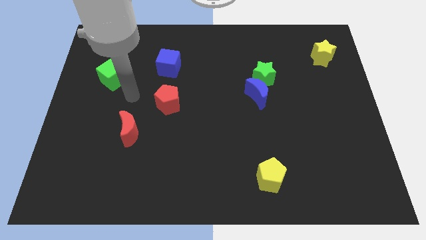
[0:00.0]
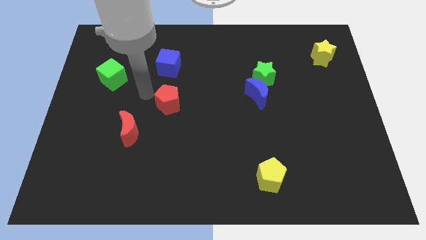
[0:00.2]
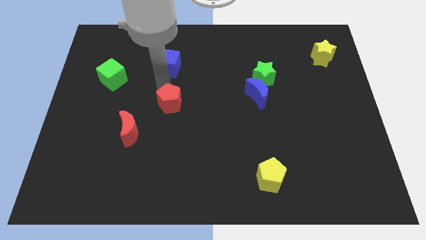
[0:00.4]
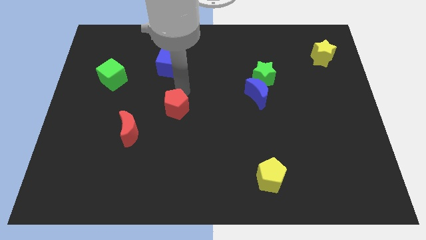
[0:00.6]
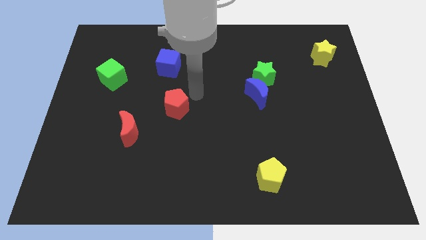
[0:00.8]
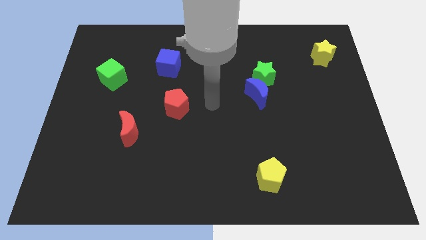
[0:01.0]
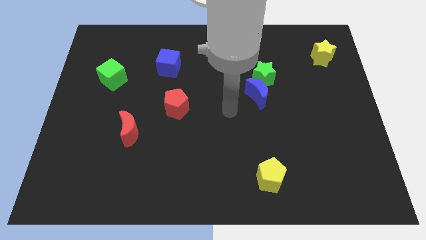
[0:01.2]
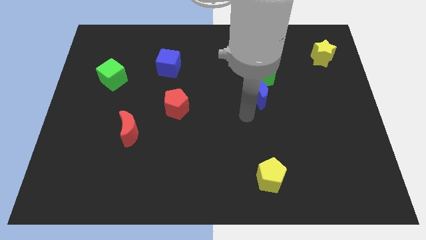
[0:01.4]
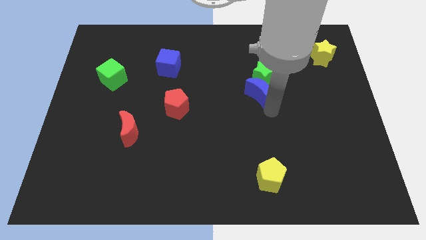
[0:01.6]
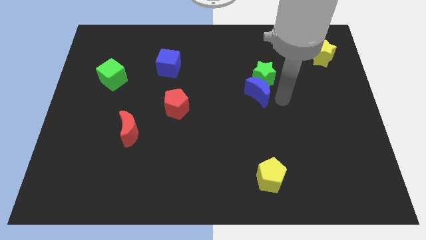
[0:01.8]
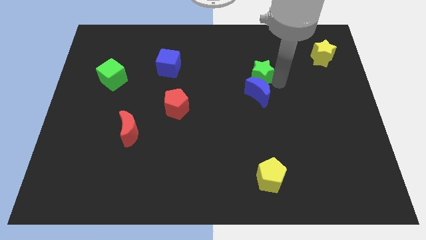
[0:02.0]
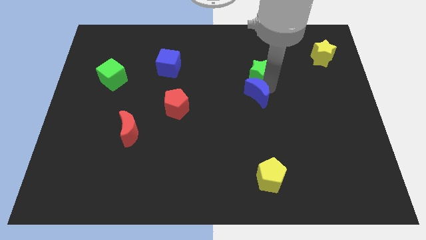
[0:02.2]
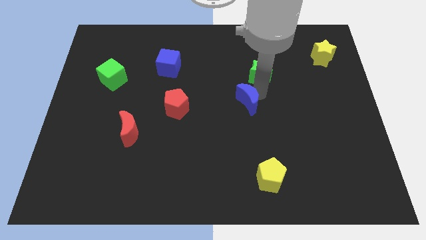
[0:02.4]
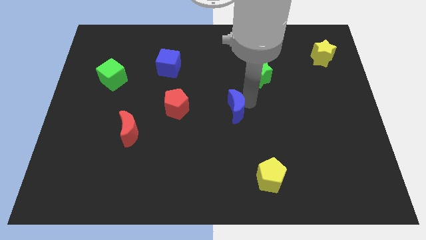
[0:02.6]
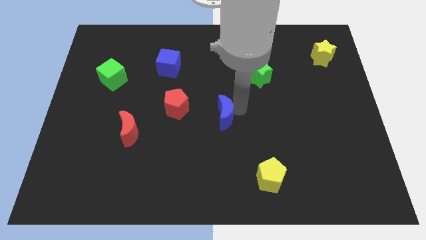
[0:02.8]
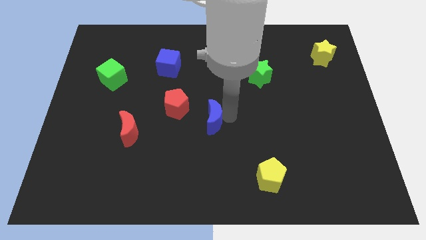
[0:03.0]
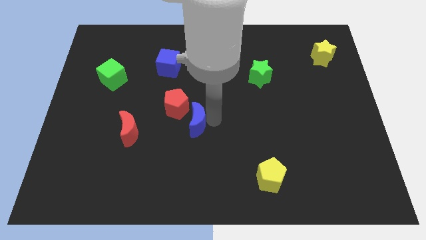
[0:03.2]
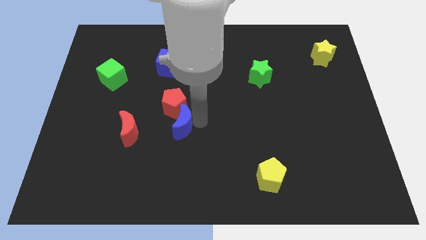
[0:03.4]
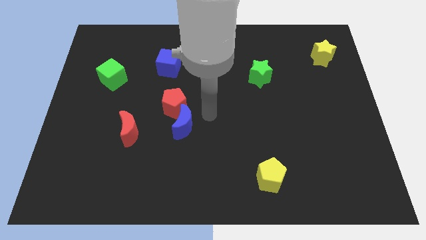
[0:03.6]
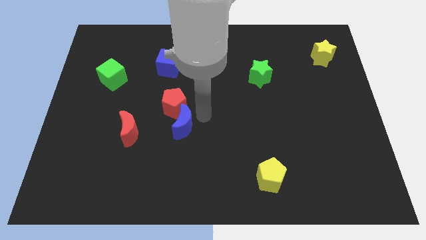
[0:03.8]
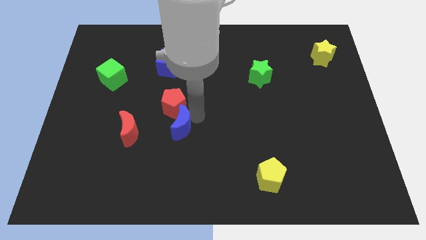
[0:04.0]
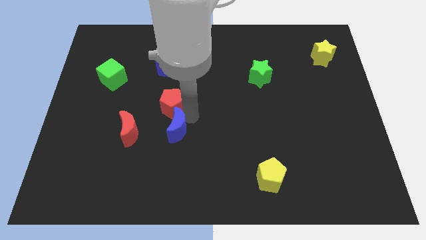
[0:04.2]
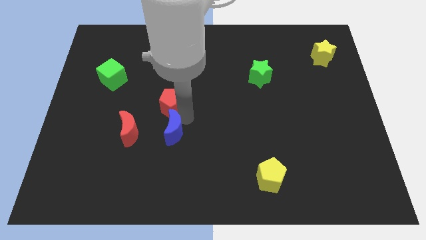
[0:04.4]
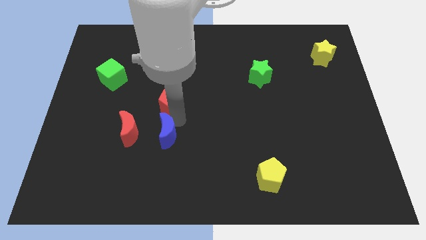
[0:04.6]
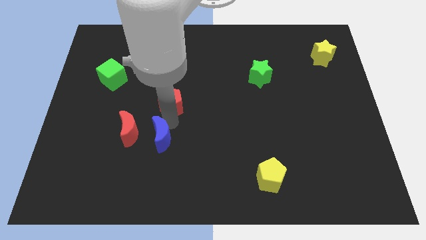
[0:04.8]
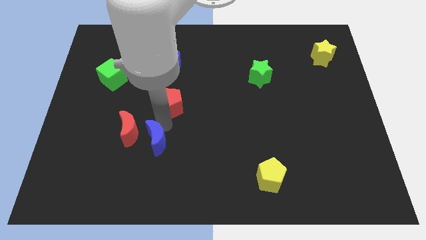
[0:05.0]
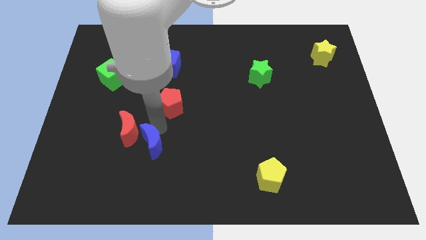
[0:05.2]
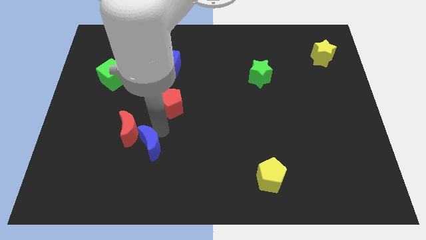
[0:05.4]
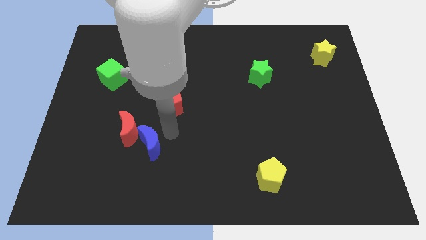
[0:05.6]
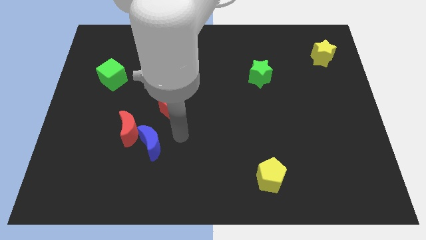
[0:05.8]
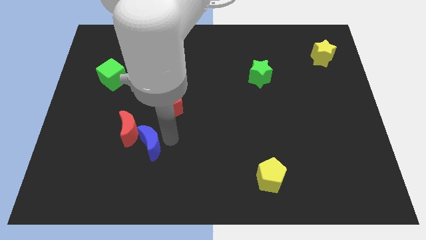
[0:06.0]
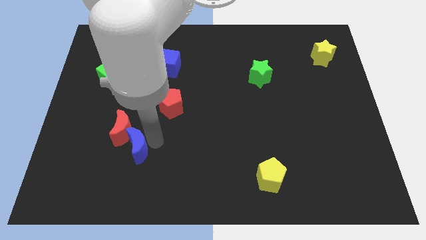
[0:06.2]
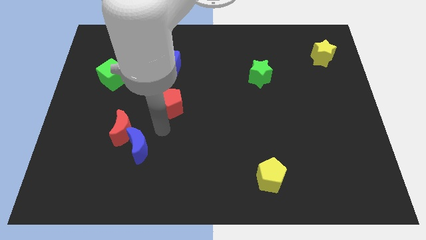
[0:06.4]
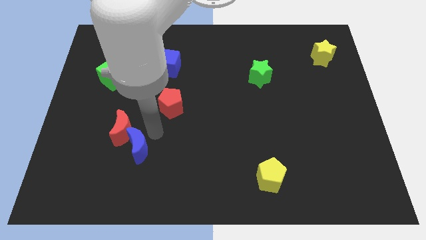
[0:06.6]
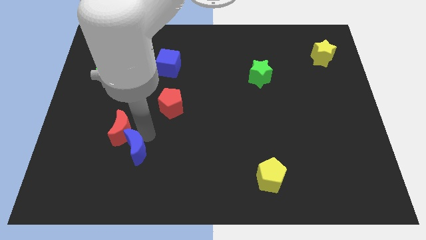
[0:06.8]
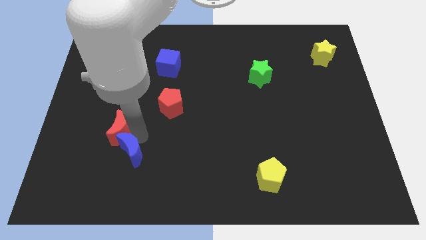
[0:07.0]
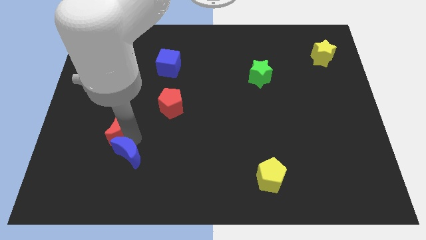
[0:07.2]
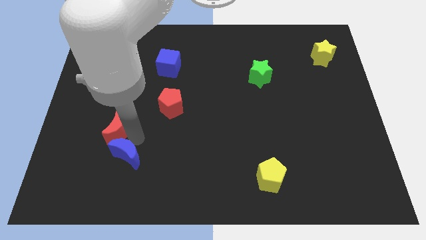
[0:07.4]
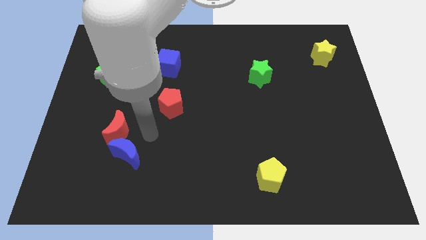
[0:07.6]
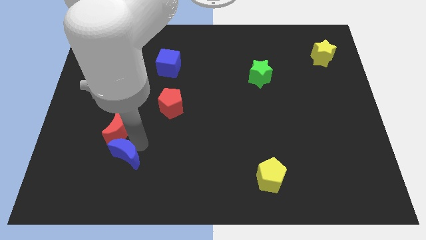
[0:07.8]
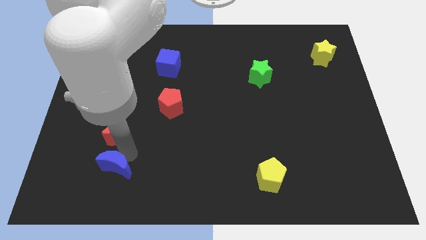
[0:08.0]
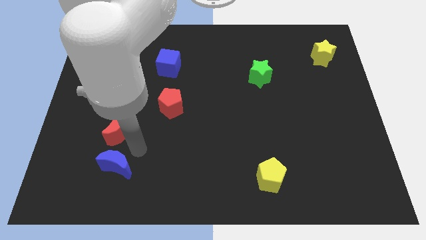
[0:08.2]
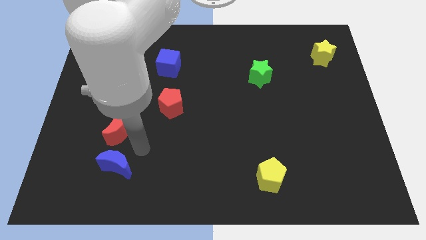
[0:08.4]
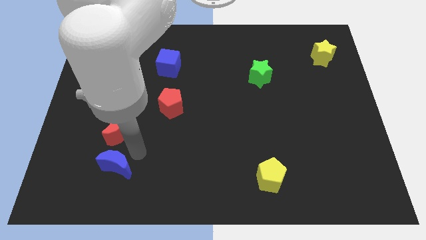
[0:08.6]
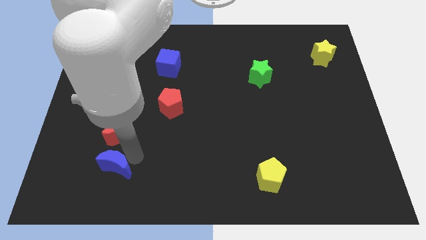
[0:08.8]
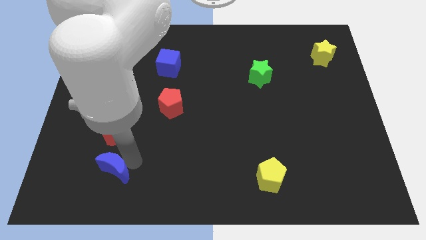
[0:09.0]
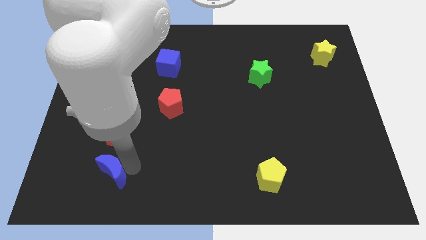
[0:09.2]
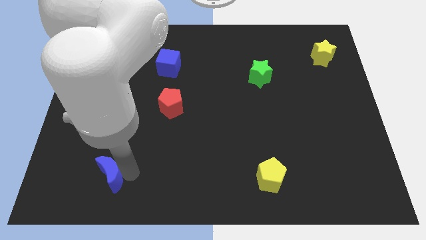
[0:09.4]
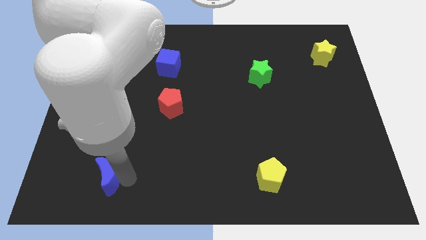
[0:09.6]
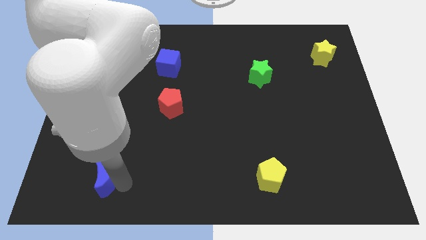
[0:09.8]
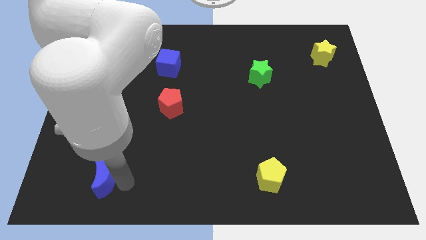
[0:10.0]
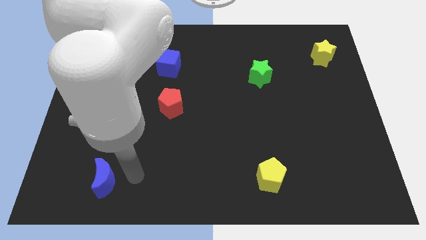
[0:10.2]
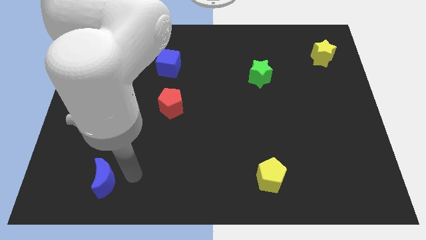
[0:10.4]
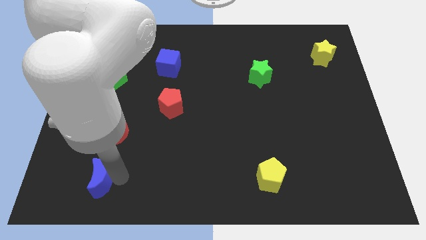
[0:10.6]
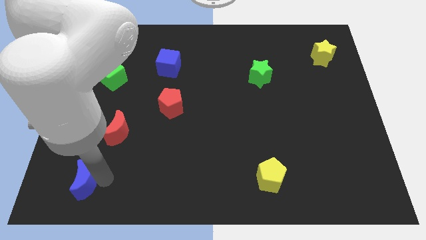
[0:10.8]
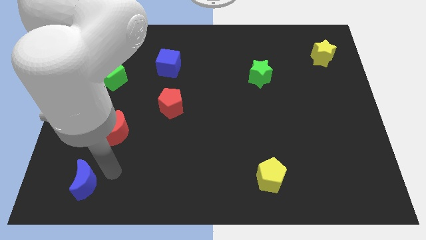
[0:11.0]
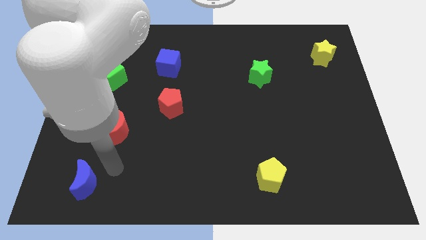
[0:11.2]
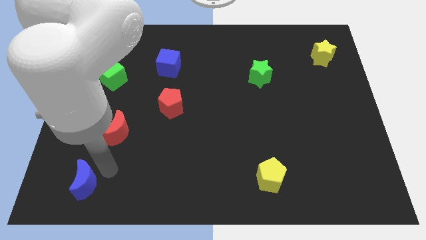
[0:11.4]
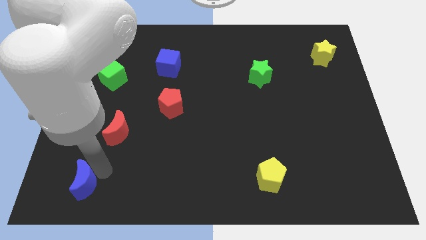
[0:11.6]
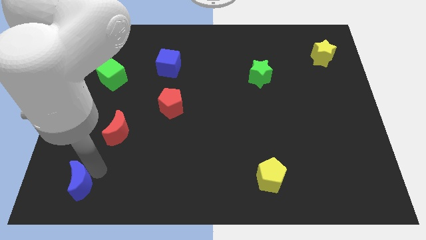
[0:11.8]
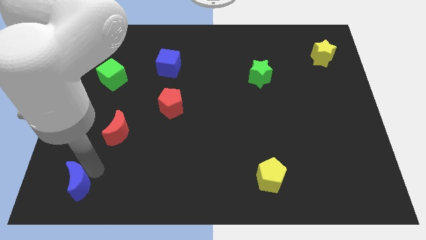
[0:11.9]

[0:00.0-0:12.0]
move the blue moon to the bottom left
